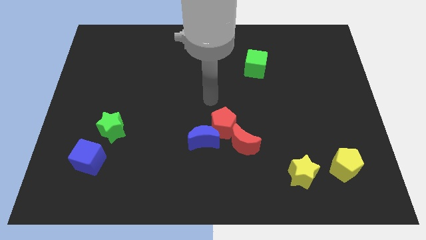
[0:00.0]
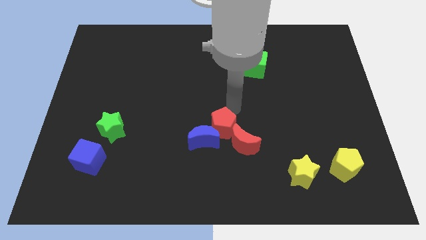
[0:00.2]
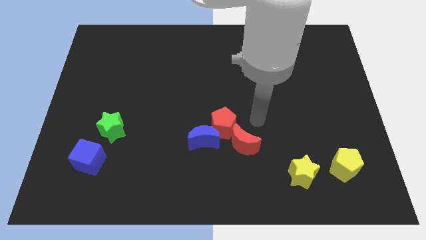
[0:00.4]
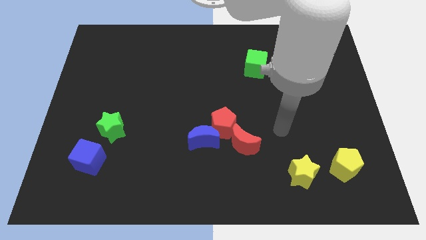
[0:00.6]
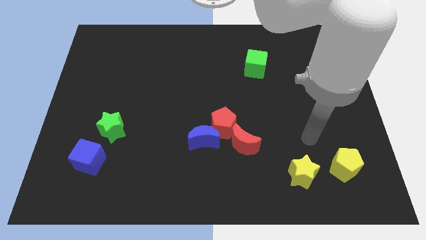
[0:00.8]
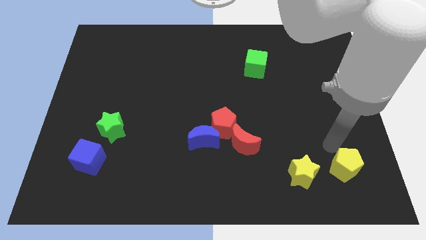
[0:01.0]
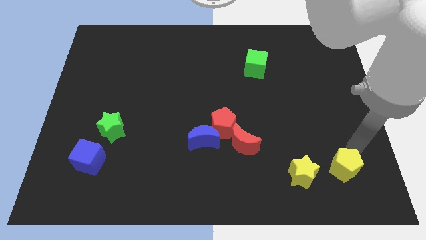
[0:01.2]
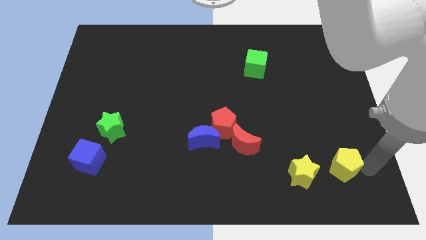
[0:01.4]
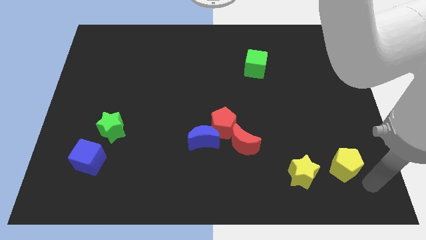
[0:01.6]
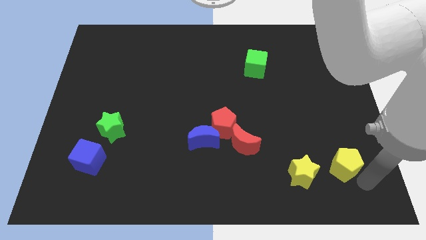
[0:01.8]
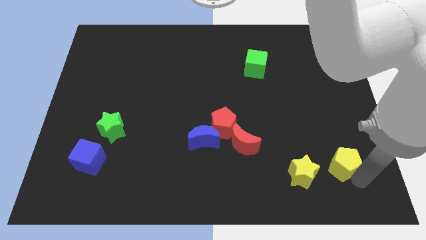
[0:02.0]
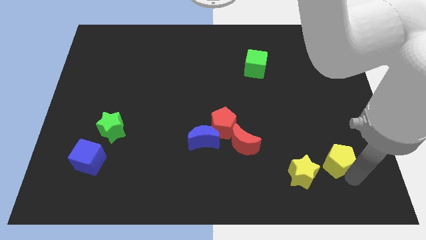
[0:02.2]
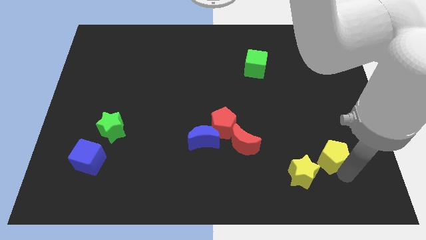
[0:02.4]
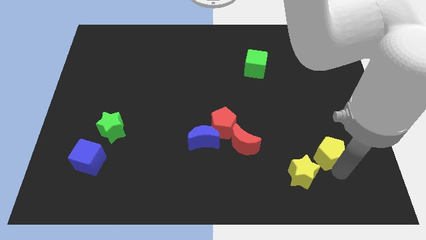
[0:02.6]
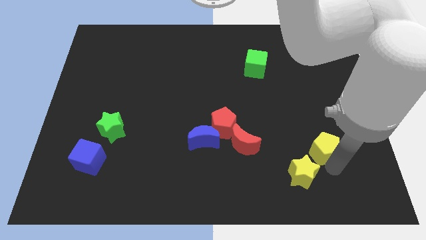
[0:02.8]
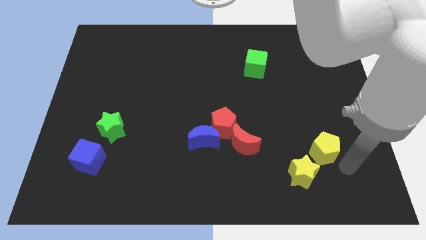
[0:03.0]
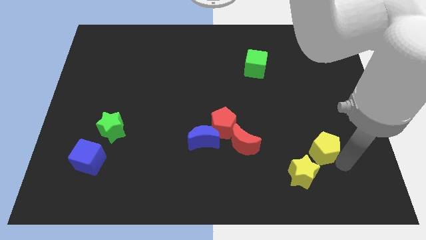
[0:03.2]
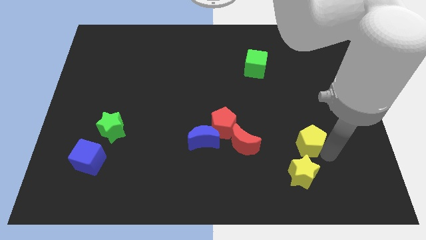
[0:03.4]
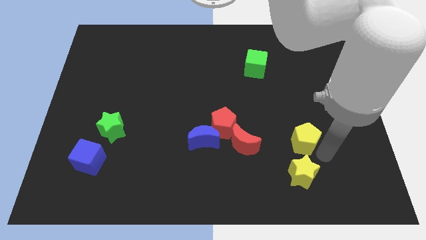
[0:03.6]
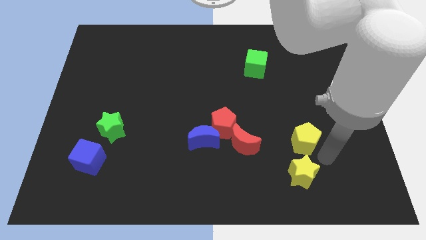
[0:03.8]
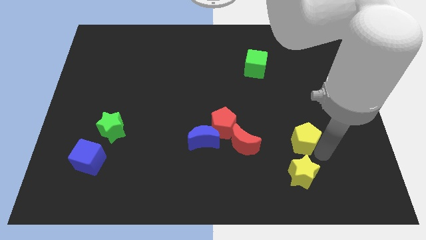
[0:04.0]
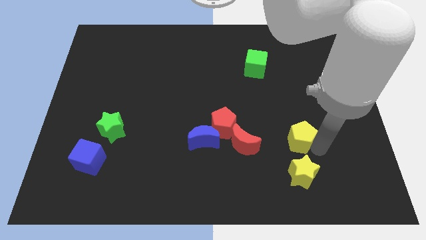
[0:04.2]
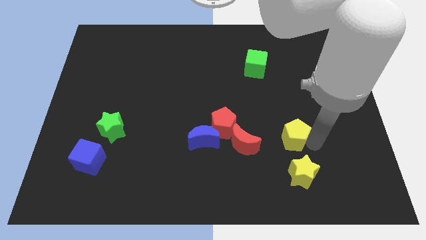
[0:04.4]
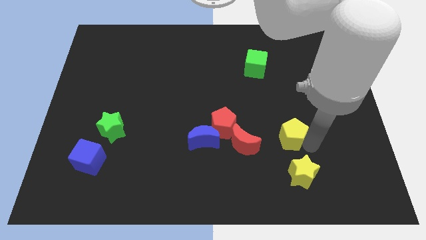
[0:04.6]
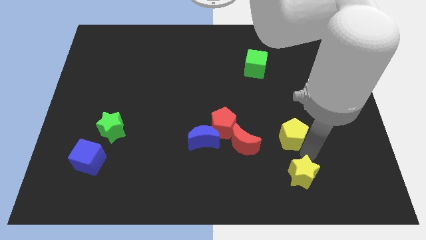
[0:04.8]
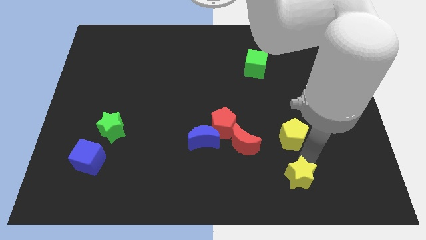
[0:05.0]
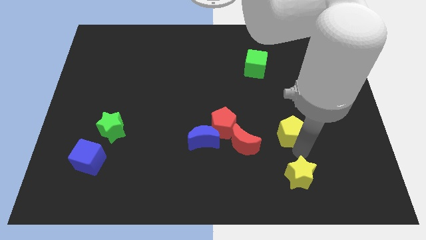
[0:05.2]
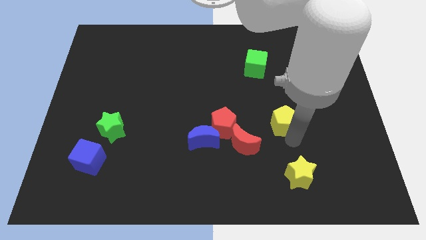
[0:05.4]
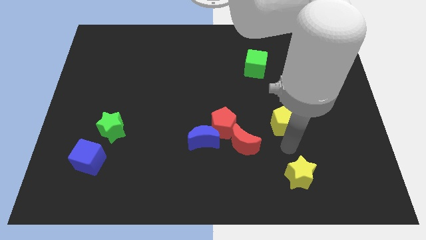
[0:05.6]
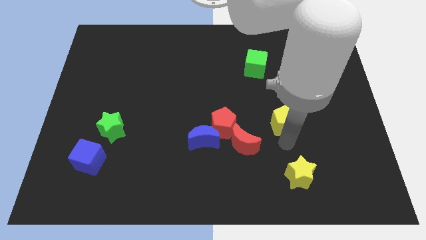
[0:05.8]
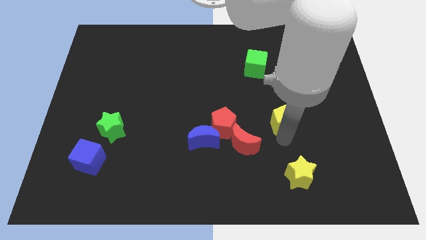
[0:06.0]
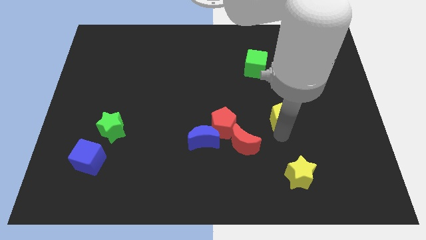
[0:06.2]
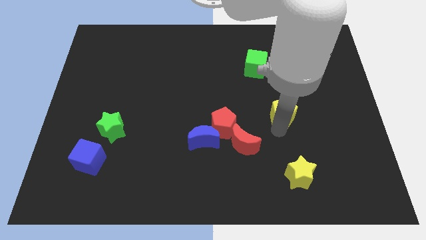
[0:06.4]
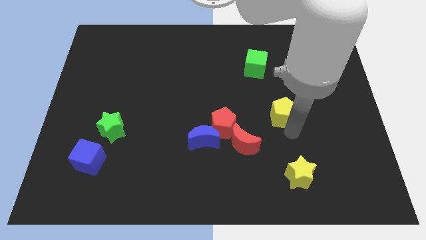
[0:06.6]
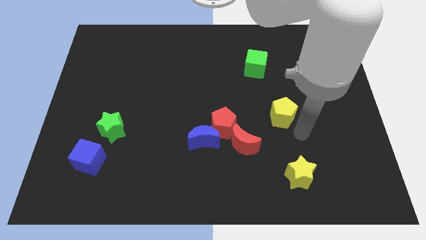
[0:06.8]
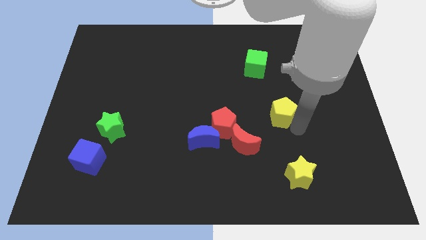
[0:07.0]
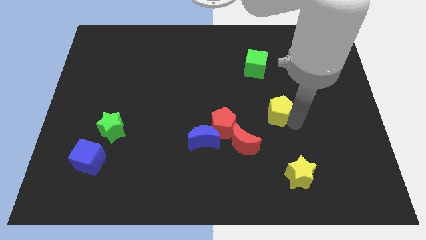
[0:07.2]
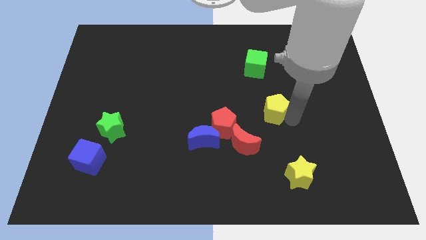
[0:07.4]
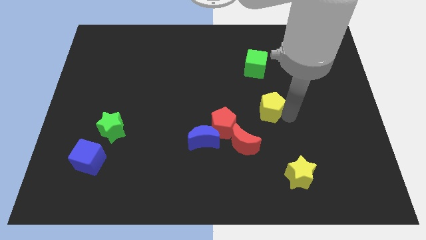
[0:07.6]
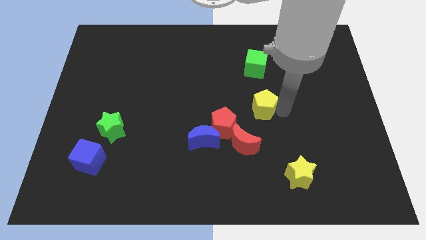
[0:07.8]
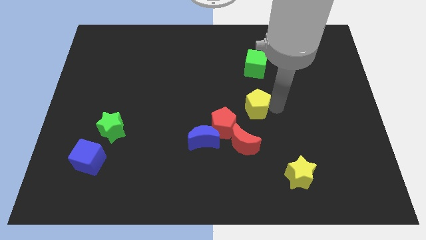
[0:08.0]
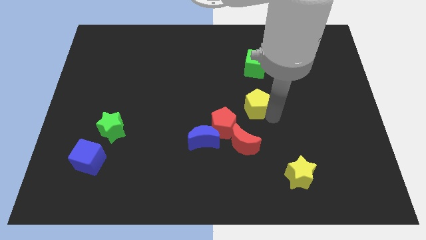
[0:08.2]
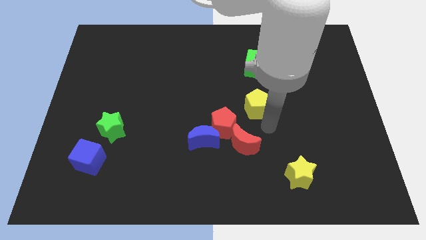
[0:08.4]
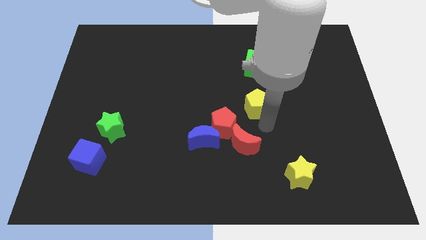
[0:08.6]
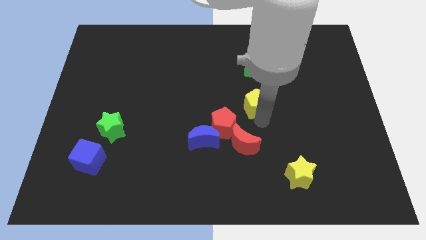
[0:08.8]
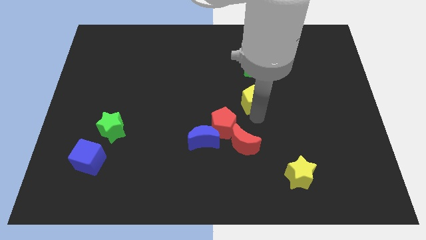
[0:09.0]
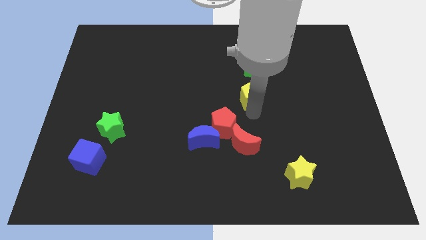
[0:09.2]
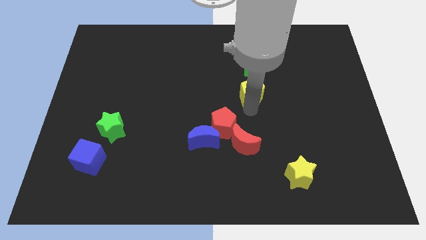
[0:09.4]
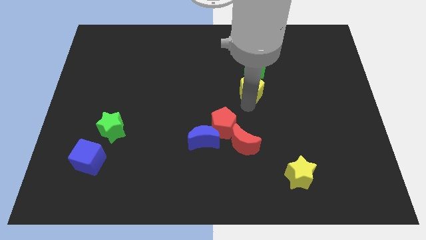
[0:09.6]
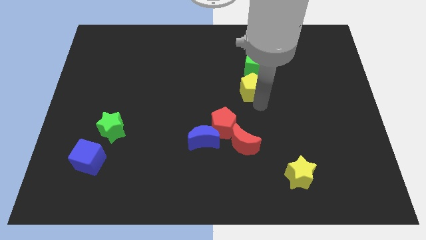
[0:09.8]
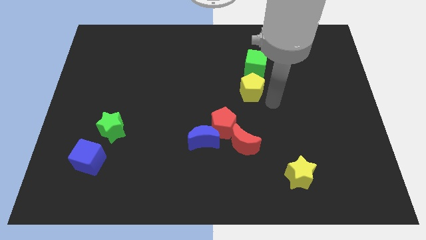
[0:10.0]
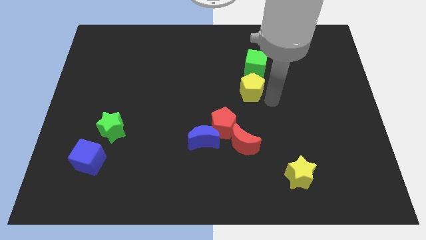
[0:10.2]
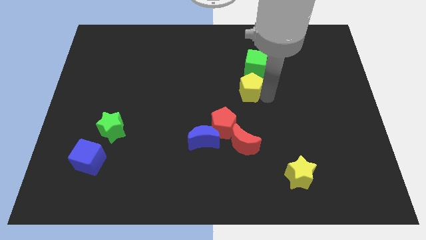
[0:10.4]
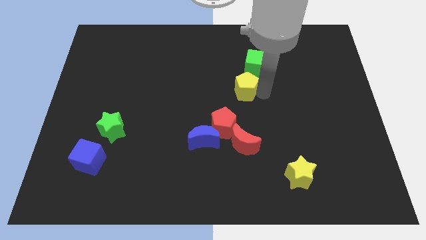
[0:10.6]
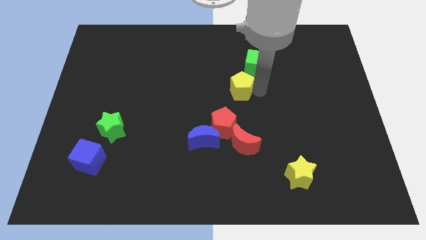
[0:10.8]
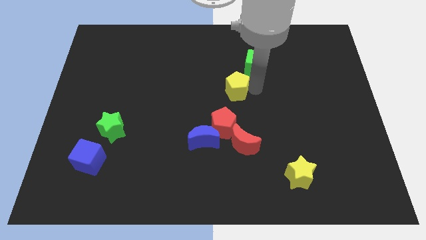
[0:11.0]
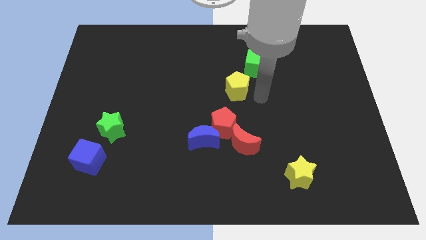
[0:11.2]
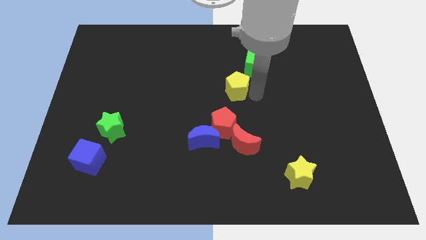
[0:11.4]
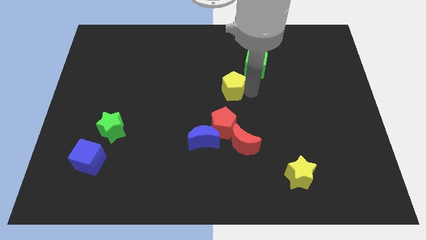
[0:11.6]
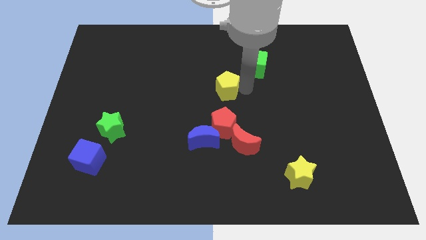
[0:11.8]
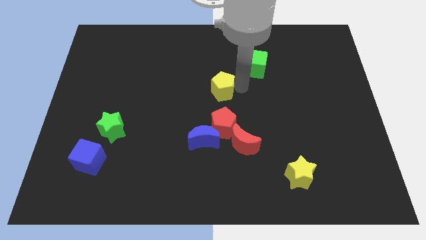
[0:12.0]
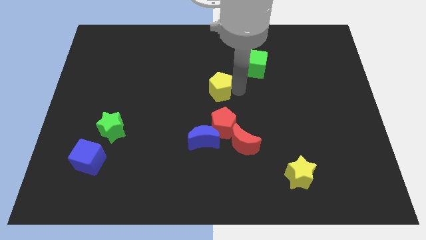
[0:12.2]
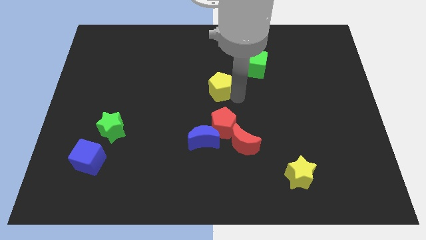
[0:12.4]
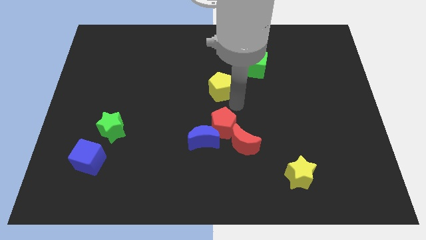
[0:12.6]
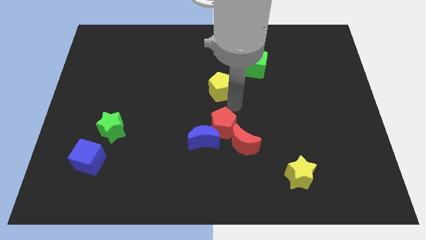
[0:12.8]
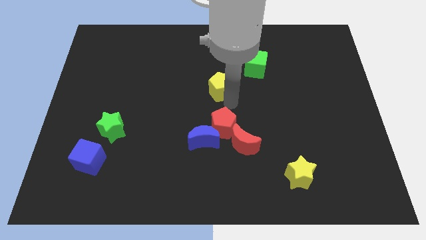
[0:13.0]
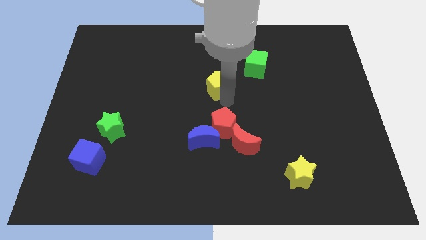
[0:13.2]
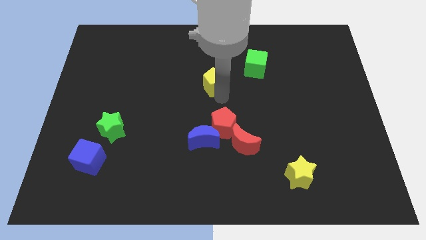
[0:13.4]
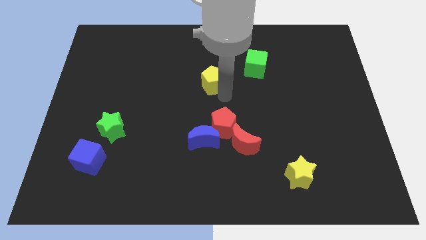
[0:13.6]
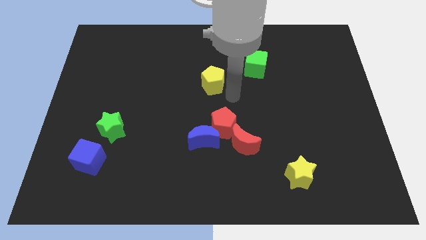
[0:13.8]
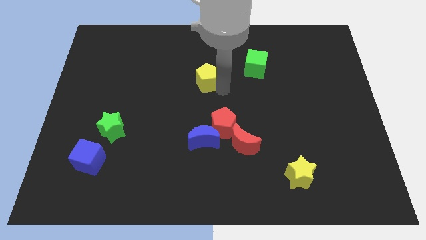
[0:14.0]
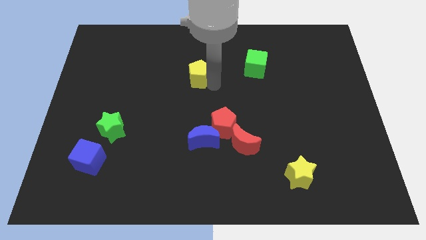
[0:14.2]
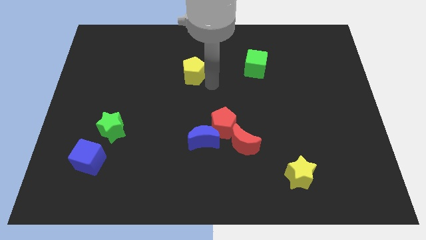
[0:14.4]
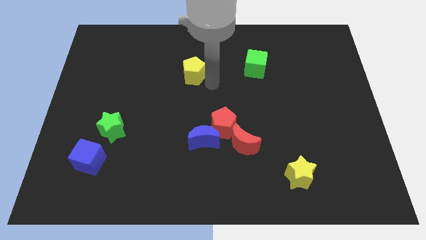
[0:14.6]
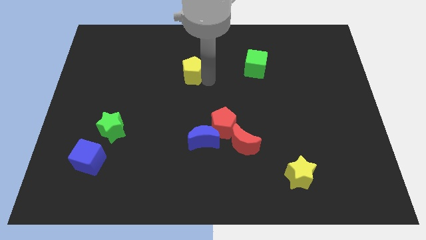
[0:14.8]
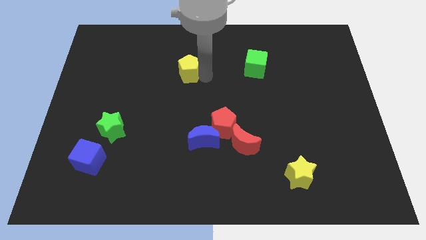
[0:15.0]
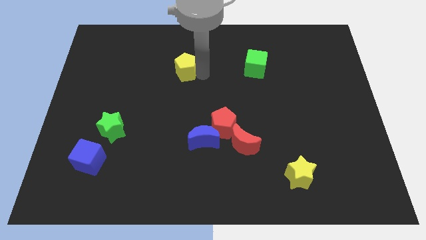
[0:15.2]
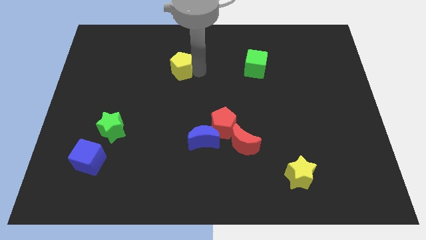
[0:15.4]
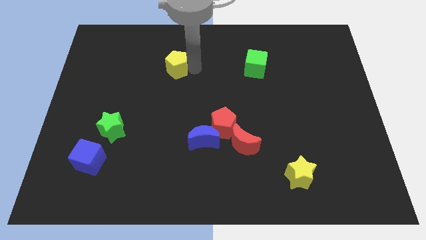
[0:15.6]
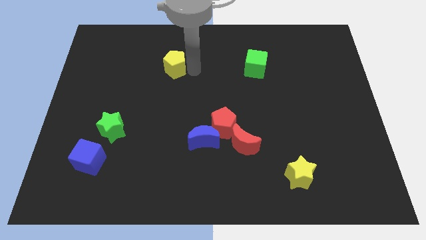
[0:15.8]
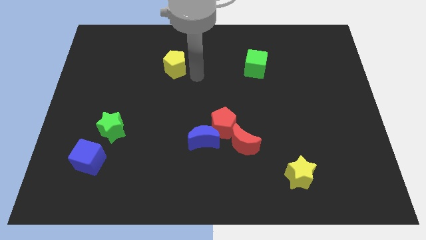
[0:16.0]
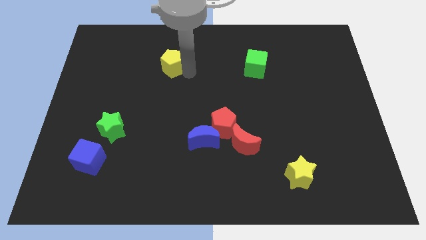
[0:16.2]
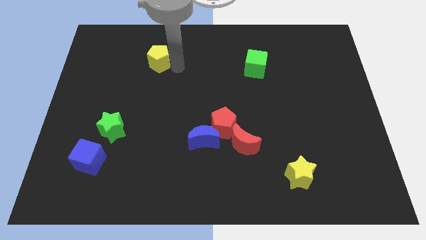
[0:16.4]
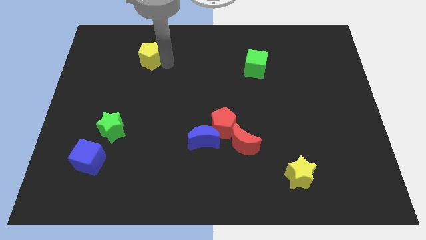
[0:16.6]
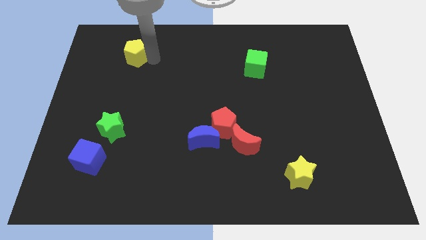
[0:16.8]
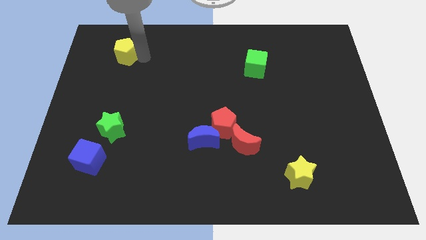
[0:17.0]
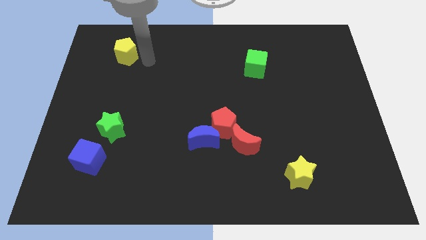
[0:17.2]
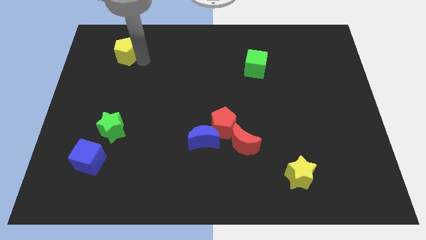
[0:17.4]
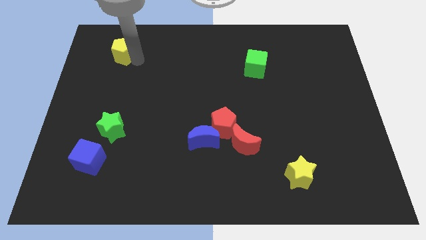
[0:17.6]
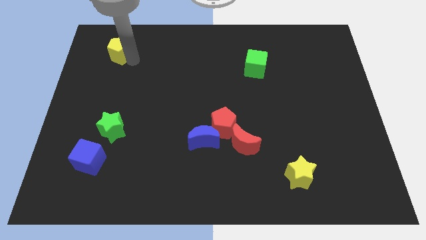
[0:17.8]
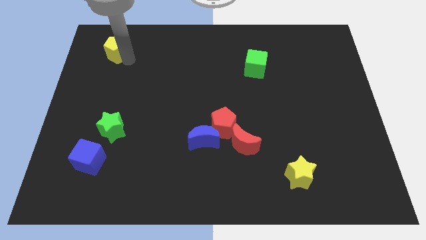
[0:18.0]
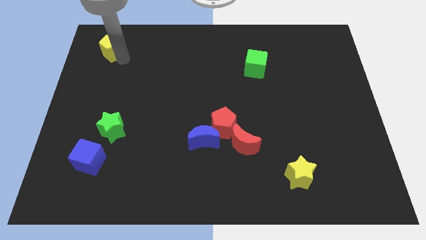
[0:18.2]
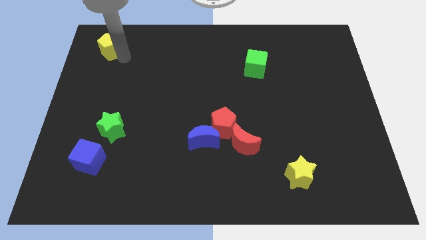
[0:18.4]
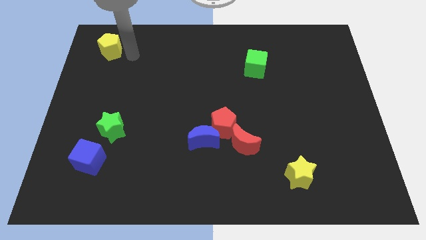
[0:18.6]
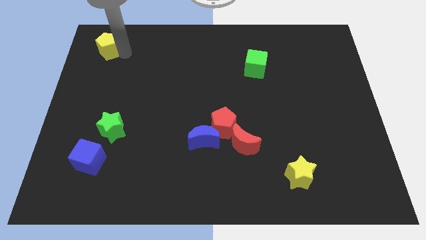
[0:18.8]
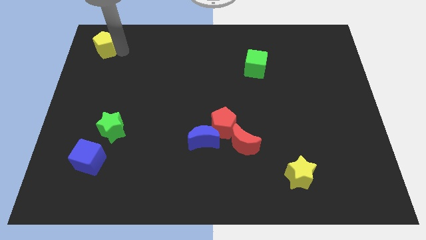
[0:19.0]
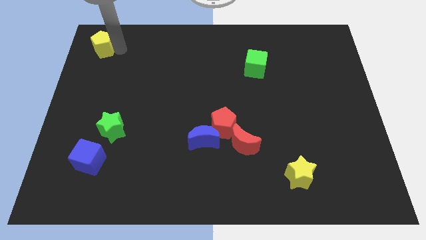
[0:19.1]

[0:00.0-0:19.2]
push the yellow pentagon to the top left corner
